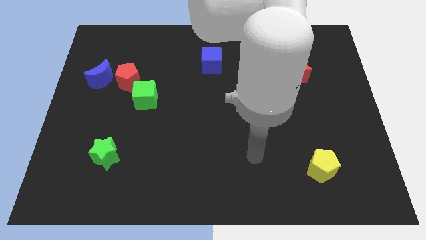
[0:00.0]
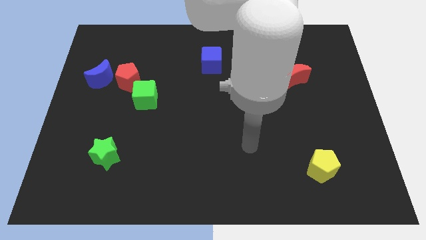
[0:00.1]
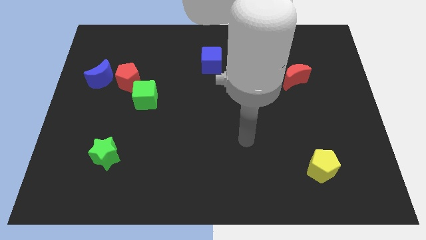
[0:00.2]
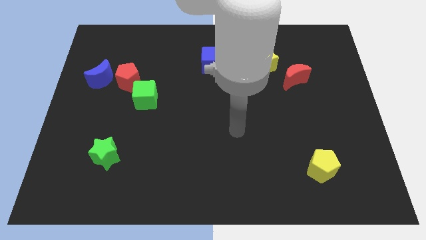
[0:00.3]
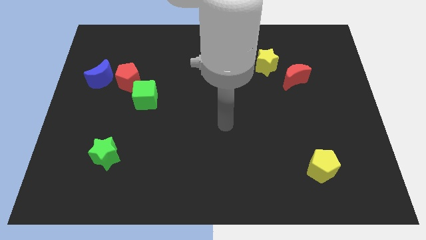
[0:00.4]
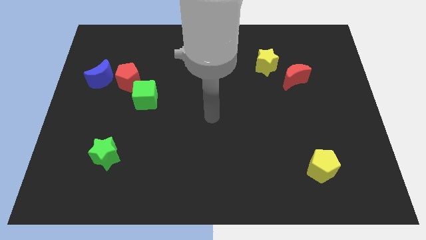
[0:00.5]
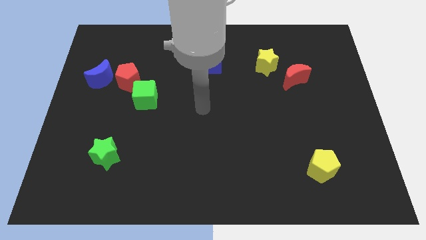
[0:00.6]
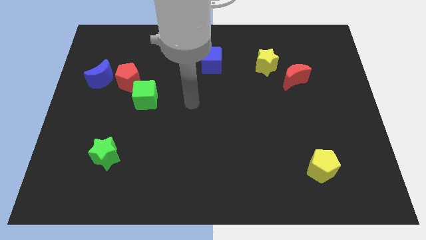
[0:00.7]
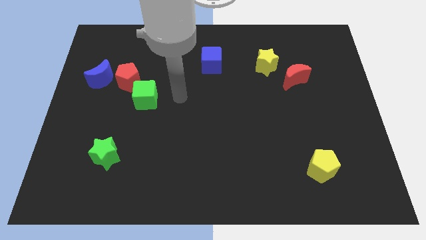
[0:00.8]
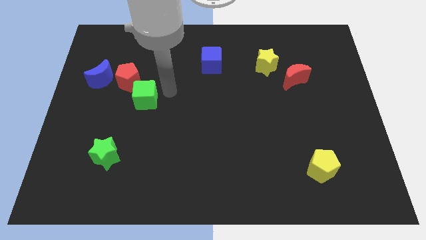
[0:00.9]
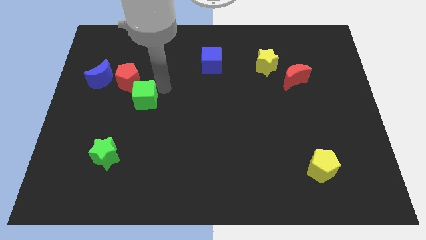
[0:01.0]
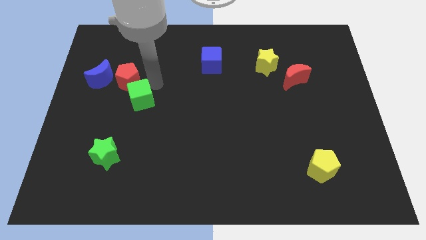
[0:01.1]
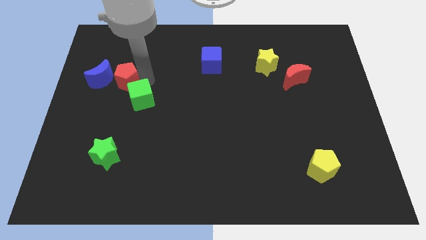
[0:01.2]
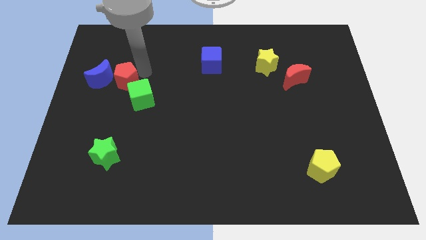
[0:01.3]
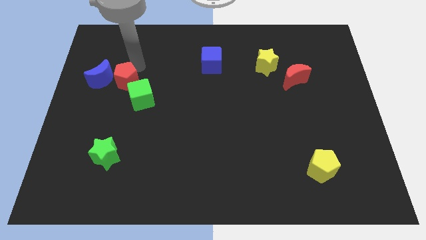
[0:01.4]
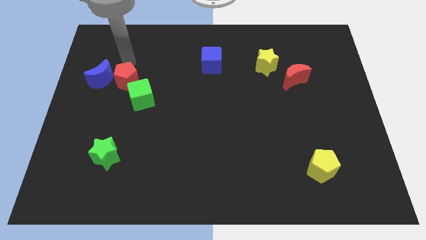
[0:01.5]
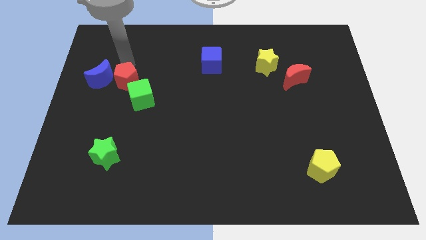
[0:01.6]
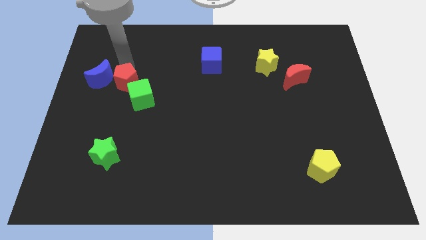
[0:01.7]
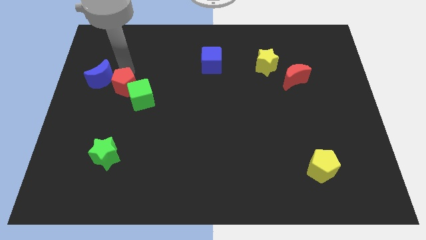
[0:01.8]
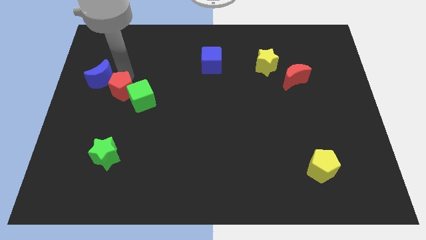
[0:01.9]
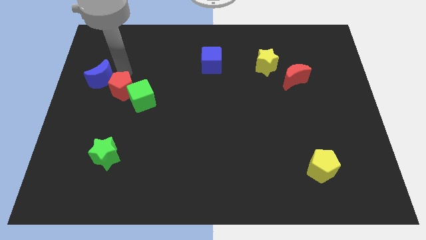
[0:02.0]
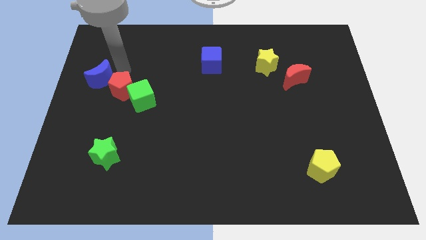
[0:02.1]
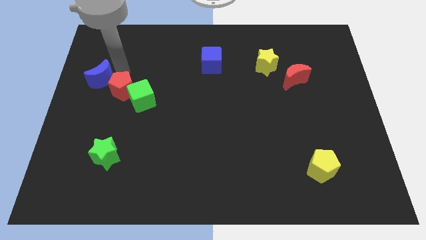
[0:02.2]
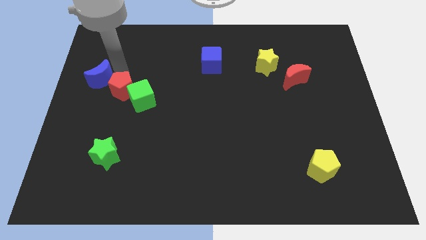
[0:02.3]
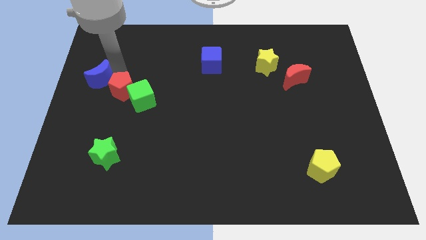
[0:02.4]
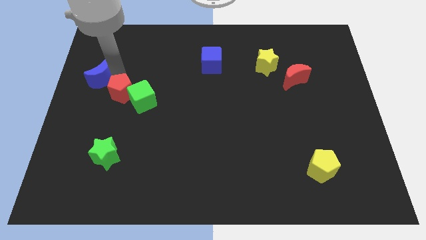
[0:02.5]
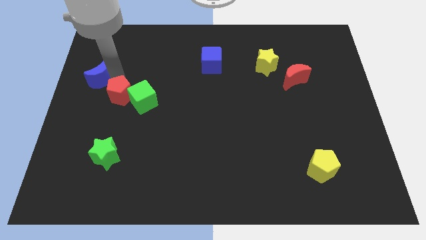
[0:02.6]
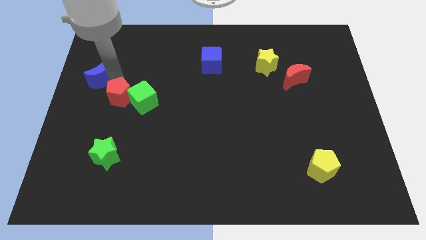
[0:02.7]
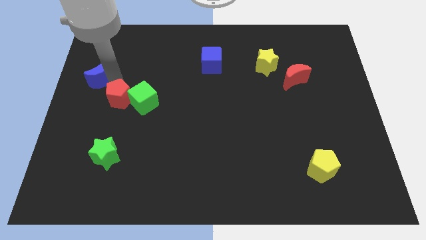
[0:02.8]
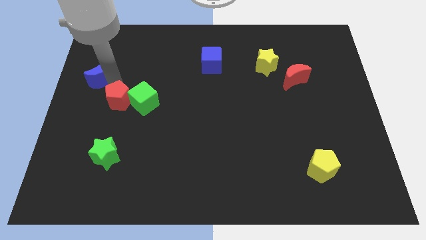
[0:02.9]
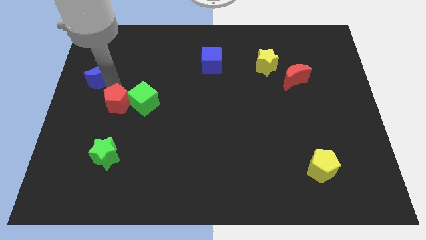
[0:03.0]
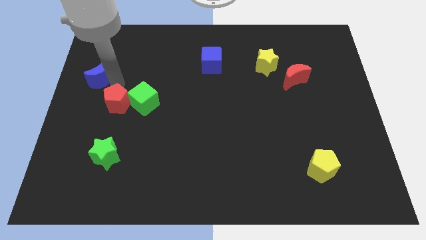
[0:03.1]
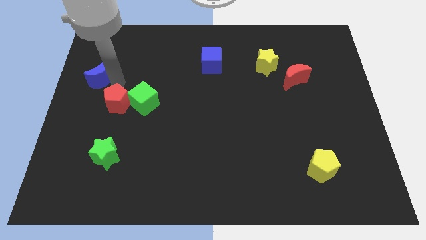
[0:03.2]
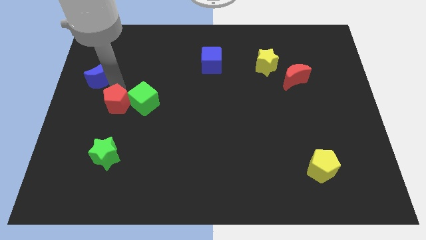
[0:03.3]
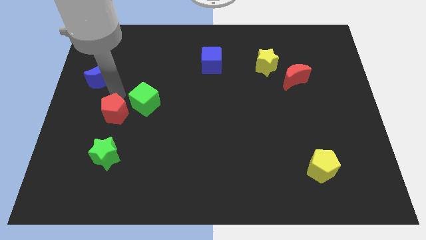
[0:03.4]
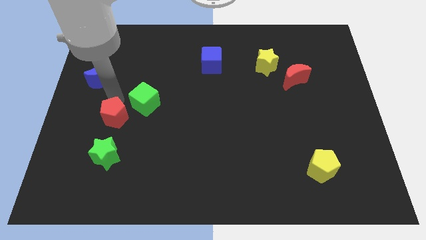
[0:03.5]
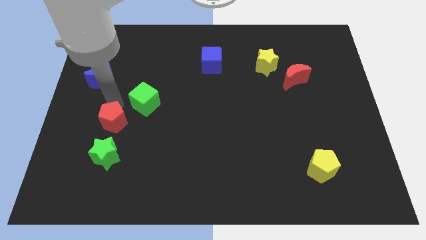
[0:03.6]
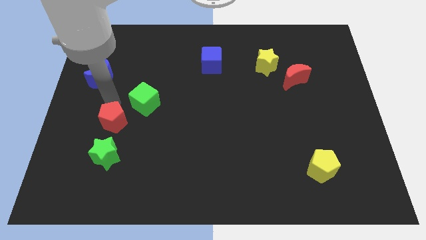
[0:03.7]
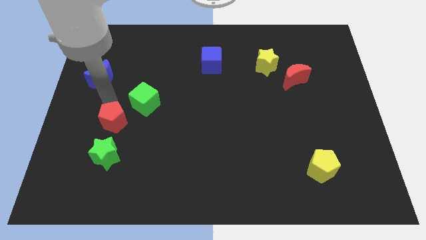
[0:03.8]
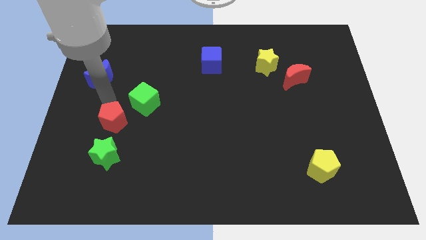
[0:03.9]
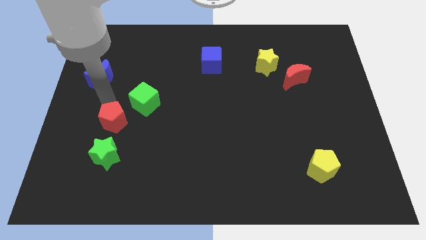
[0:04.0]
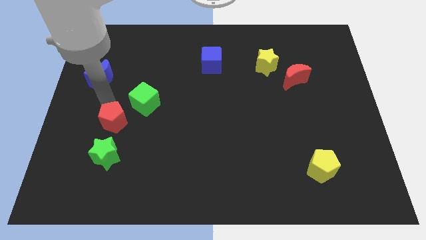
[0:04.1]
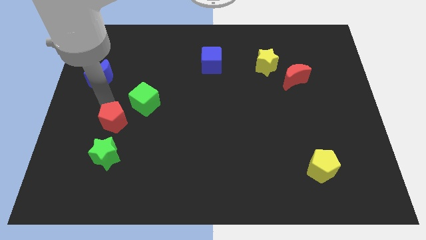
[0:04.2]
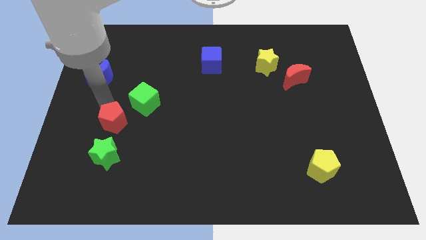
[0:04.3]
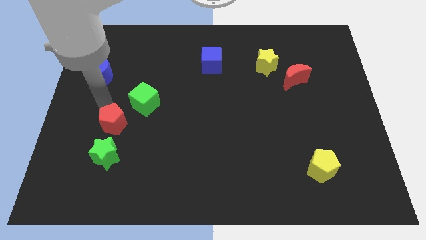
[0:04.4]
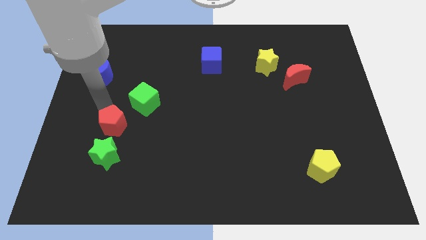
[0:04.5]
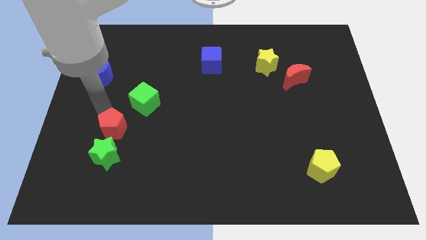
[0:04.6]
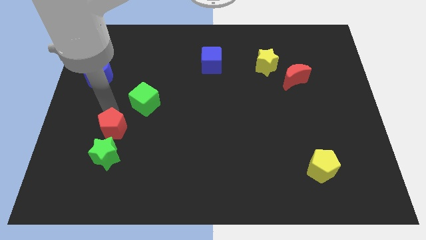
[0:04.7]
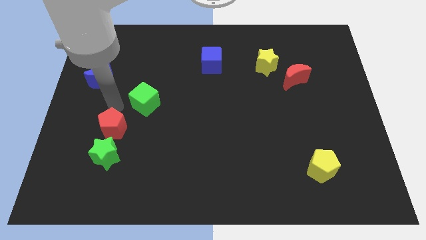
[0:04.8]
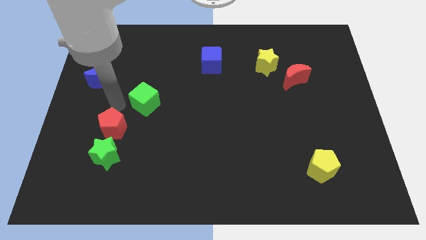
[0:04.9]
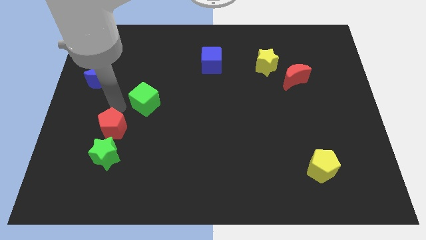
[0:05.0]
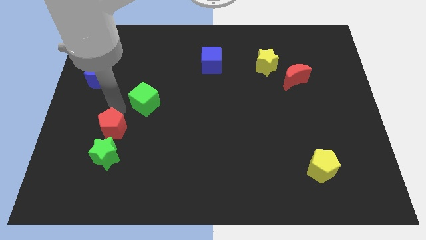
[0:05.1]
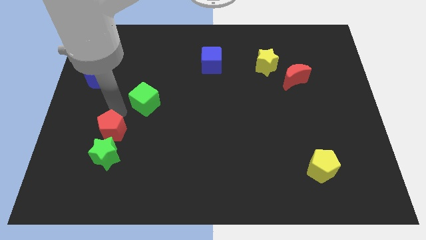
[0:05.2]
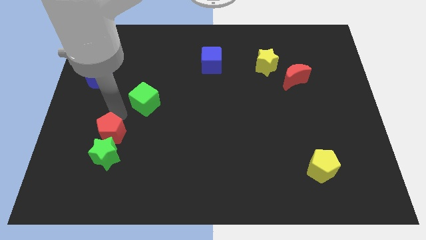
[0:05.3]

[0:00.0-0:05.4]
slide the red pentagon towards the green star

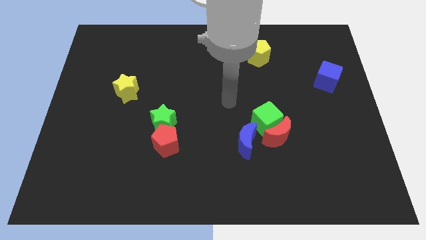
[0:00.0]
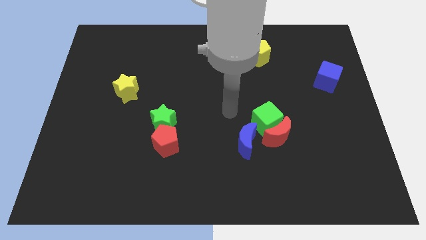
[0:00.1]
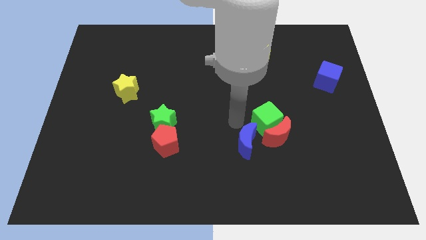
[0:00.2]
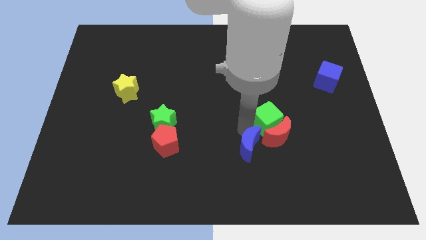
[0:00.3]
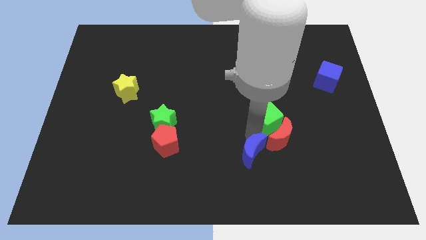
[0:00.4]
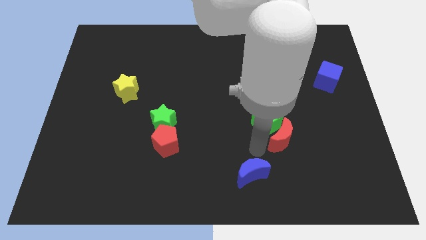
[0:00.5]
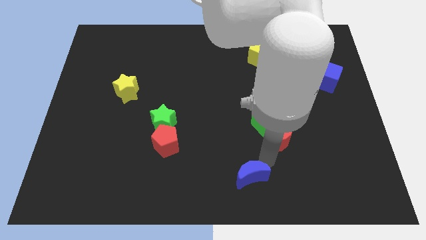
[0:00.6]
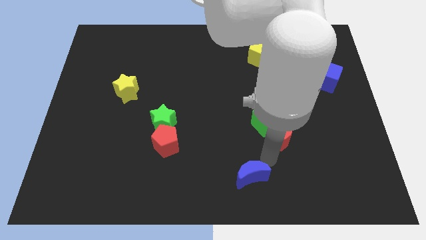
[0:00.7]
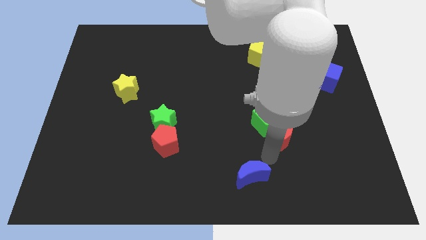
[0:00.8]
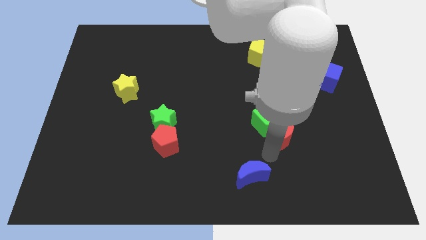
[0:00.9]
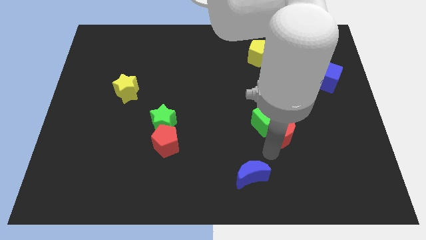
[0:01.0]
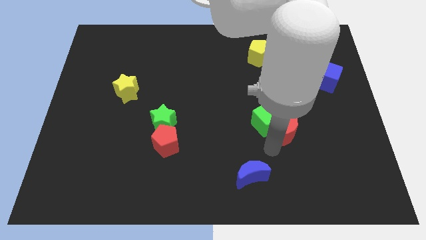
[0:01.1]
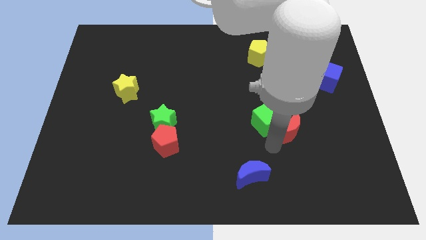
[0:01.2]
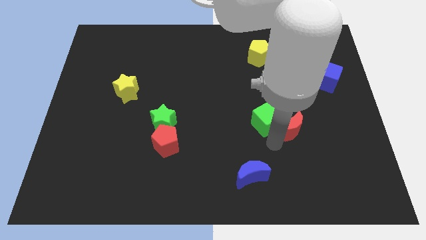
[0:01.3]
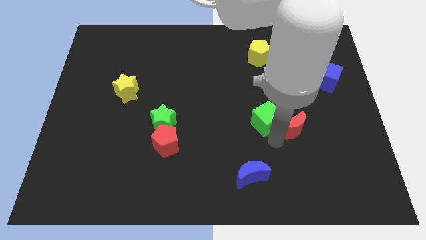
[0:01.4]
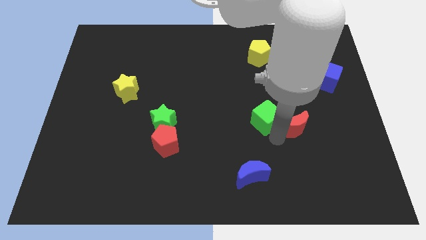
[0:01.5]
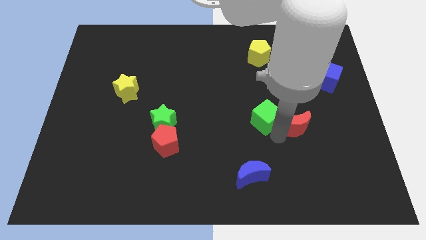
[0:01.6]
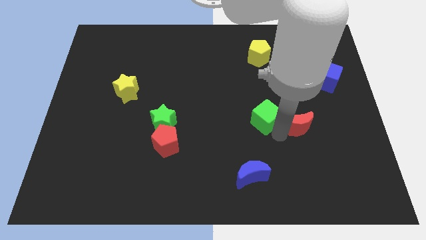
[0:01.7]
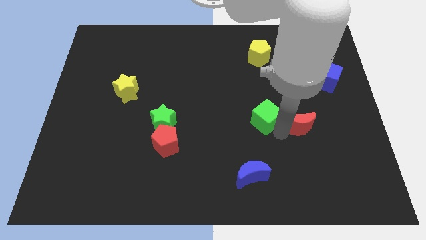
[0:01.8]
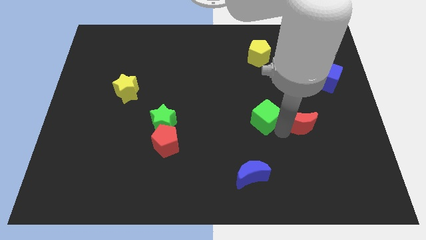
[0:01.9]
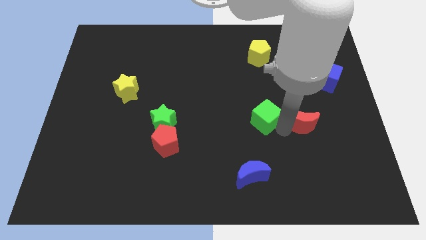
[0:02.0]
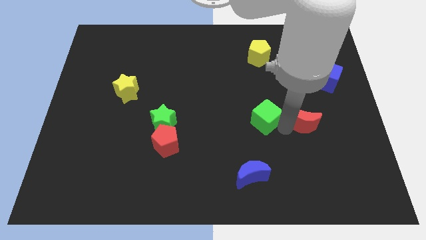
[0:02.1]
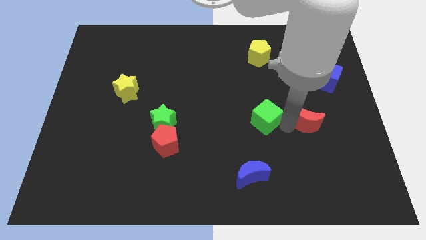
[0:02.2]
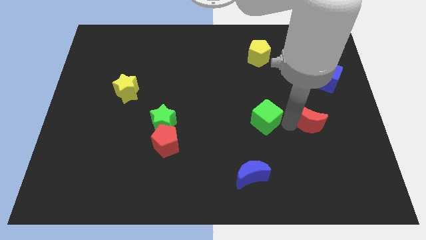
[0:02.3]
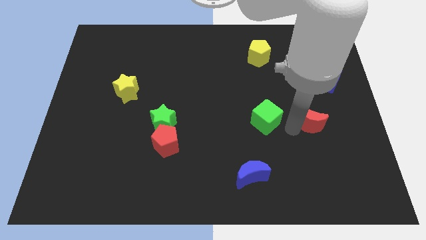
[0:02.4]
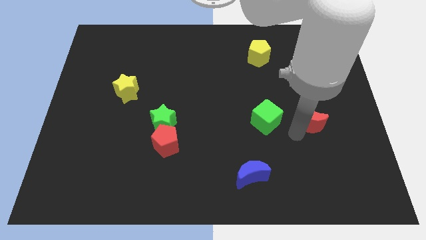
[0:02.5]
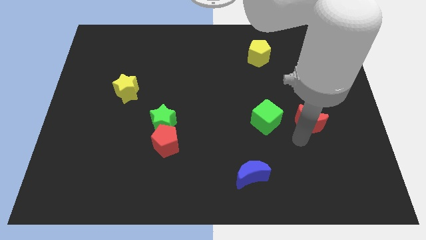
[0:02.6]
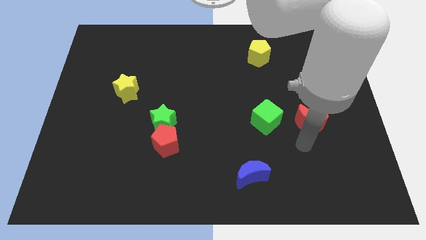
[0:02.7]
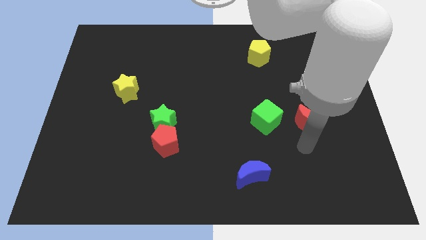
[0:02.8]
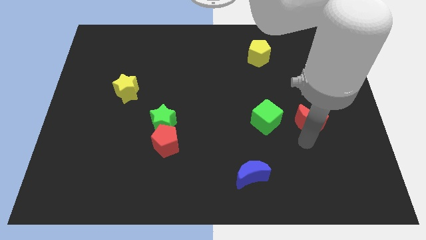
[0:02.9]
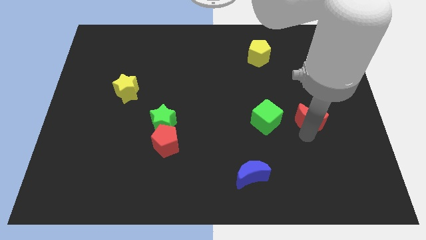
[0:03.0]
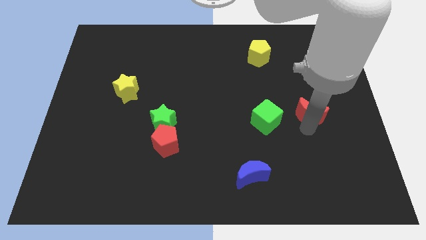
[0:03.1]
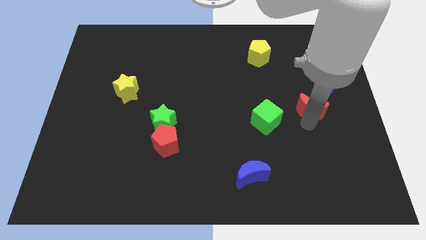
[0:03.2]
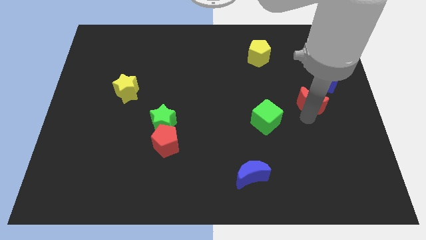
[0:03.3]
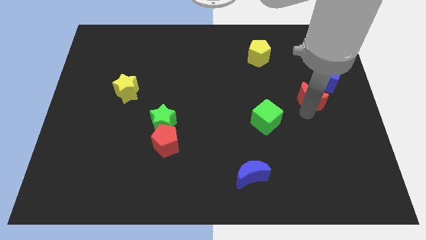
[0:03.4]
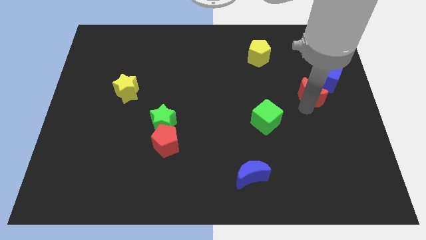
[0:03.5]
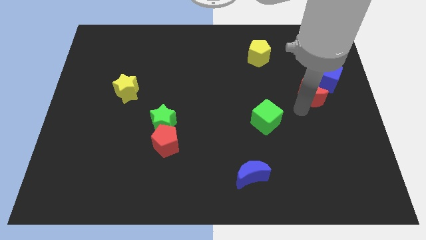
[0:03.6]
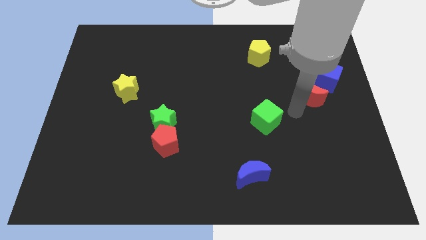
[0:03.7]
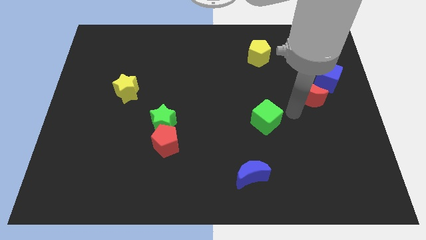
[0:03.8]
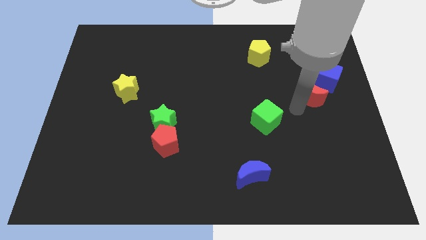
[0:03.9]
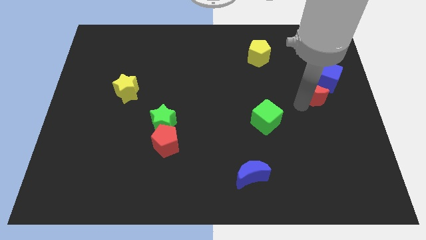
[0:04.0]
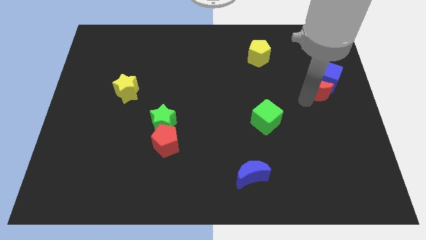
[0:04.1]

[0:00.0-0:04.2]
slide the red moon next to the blue cube
